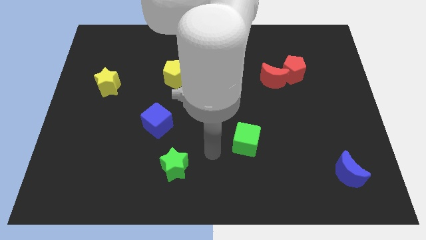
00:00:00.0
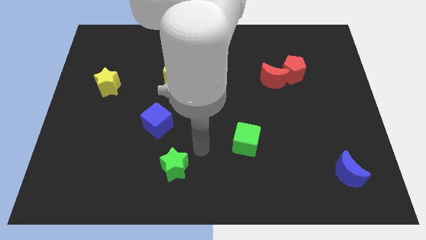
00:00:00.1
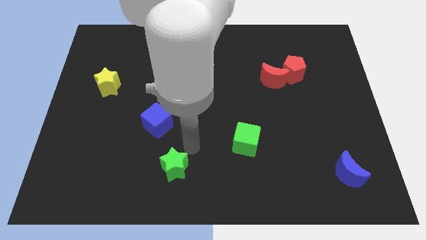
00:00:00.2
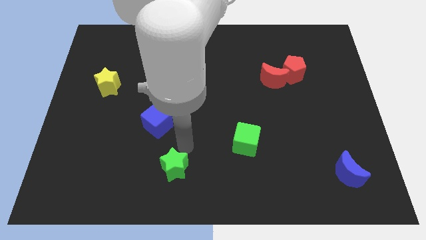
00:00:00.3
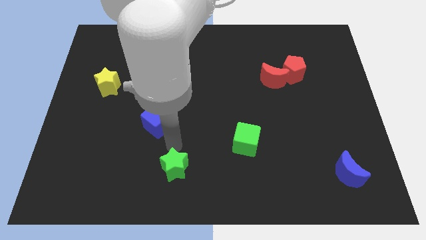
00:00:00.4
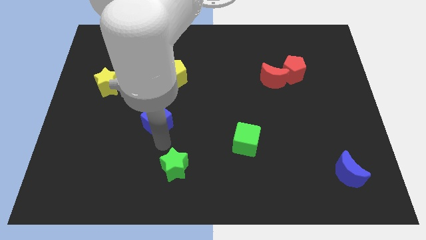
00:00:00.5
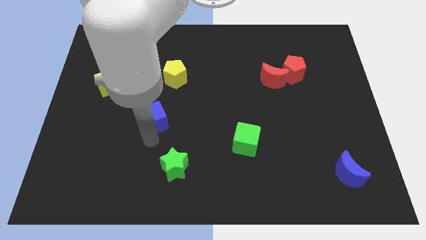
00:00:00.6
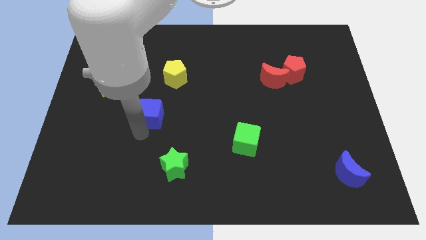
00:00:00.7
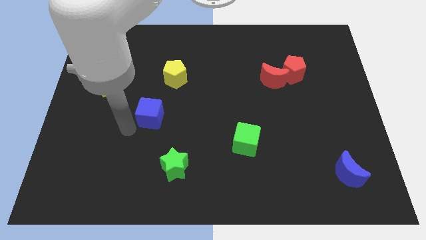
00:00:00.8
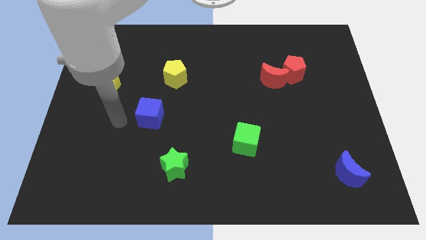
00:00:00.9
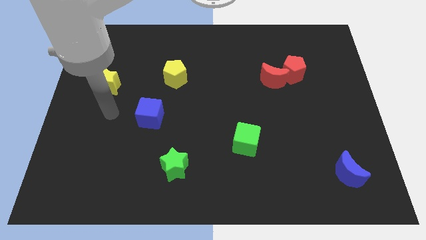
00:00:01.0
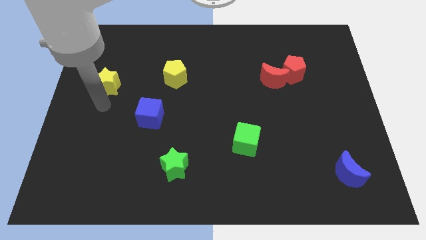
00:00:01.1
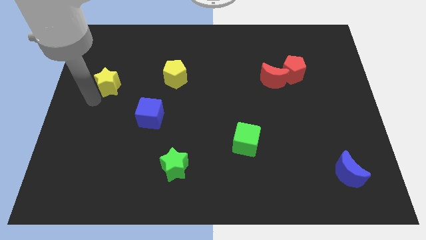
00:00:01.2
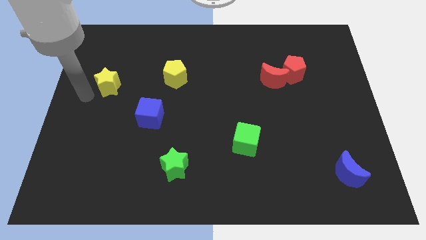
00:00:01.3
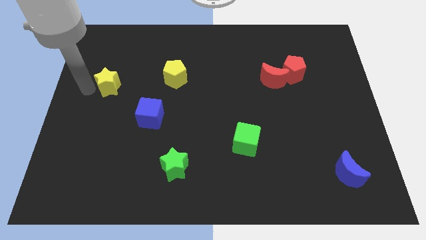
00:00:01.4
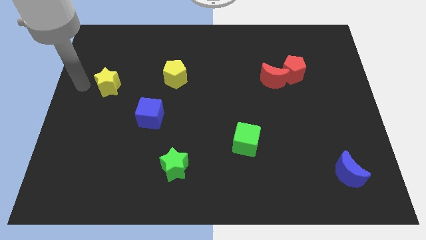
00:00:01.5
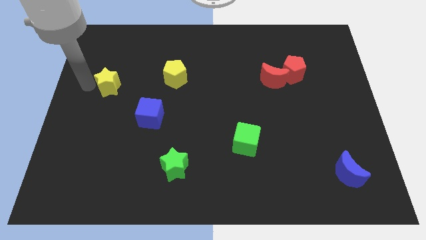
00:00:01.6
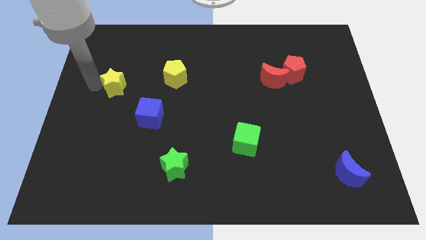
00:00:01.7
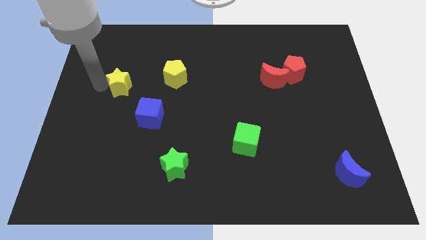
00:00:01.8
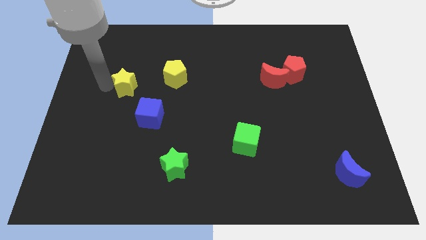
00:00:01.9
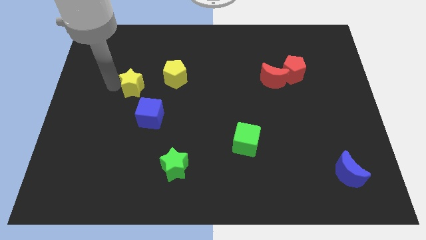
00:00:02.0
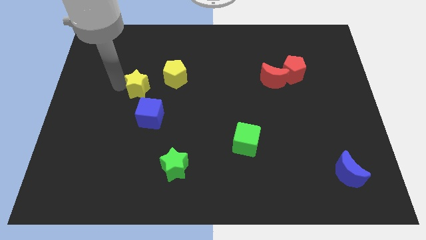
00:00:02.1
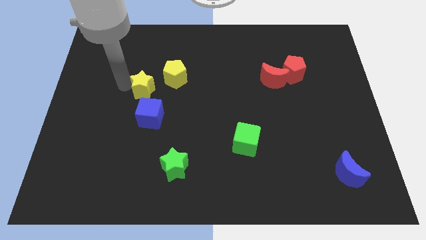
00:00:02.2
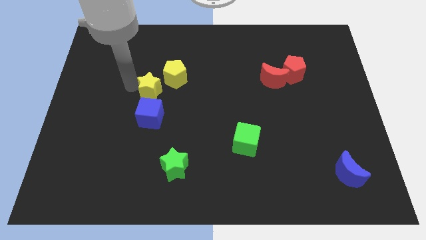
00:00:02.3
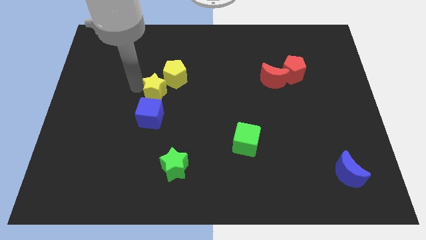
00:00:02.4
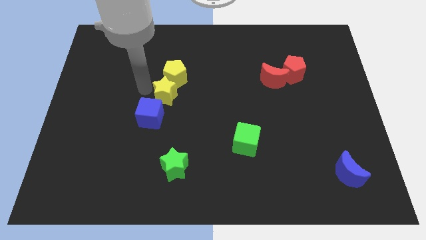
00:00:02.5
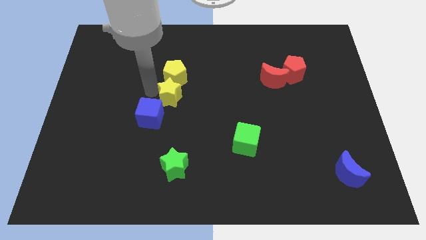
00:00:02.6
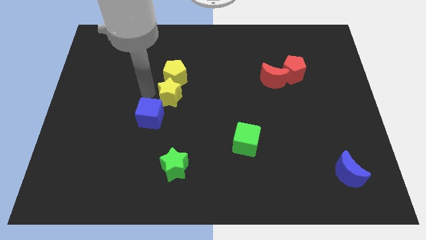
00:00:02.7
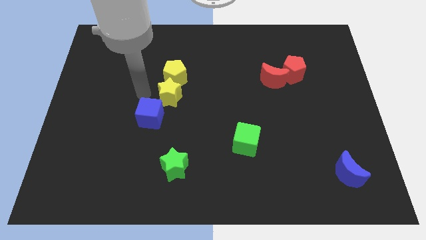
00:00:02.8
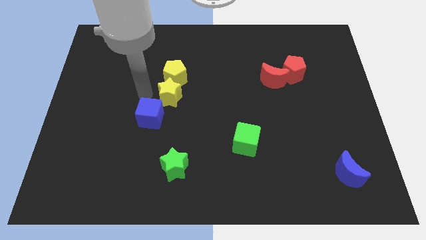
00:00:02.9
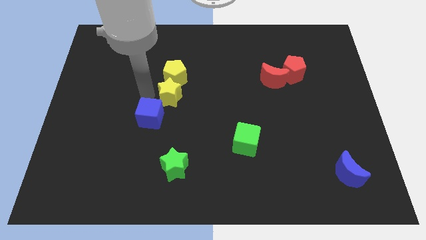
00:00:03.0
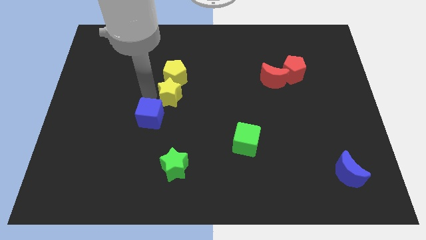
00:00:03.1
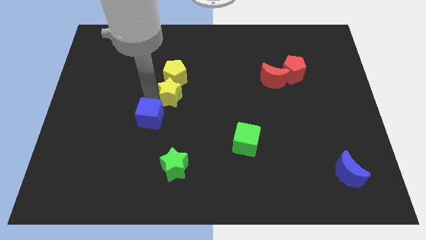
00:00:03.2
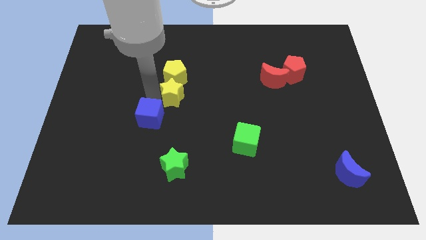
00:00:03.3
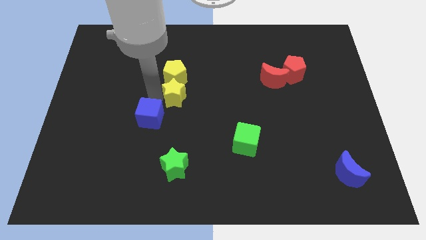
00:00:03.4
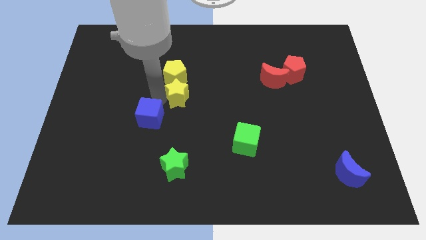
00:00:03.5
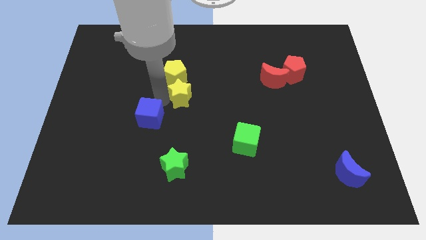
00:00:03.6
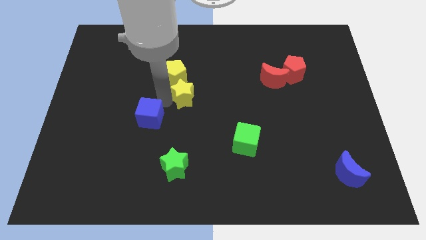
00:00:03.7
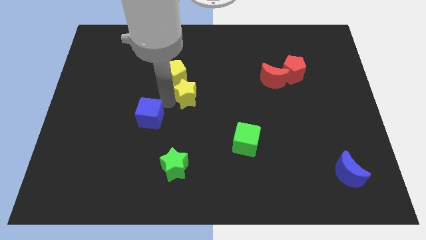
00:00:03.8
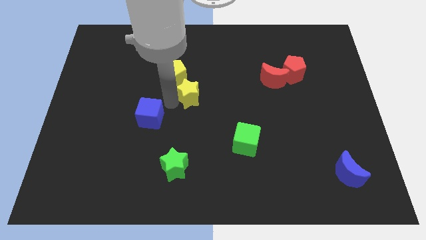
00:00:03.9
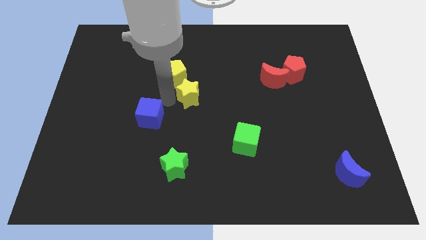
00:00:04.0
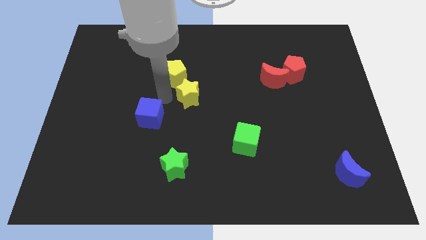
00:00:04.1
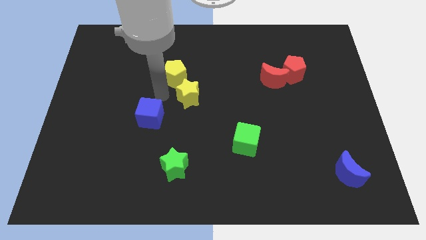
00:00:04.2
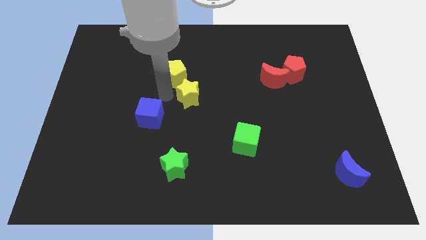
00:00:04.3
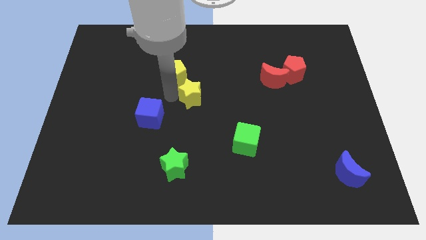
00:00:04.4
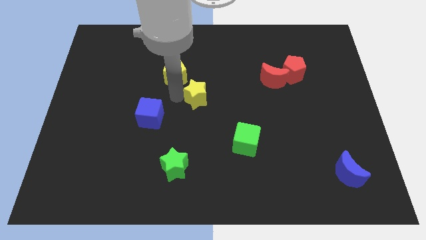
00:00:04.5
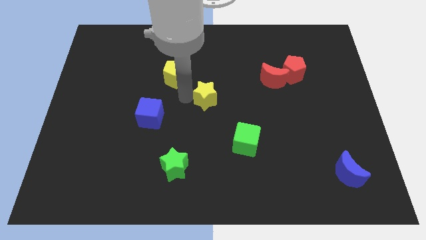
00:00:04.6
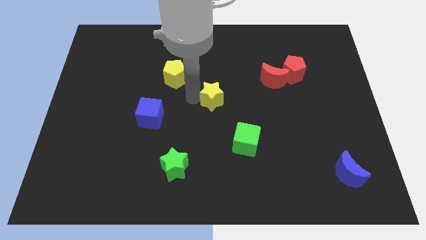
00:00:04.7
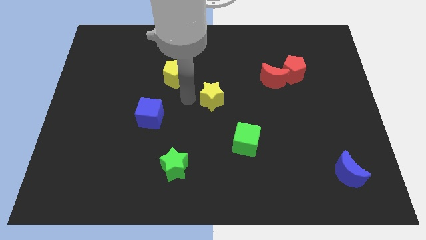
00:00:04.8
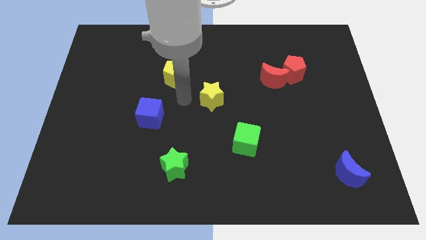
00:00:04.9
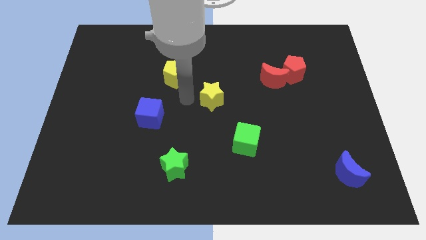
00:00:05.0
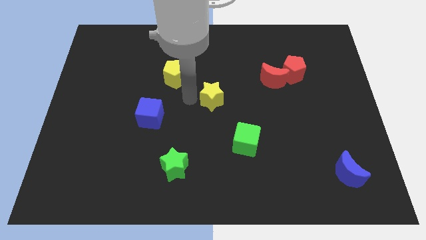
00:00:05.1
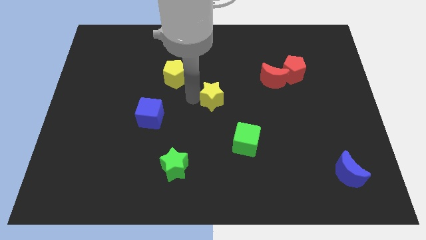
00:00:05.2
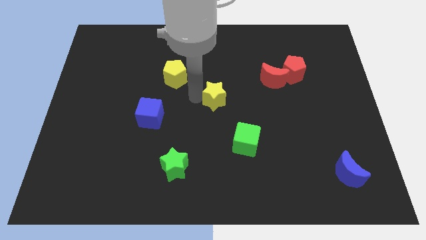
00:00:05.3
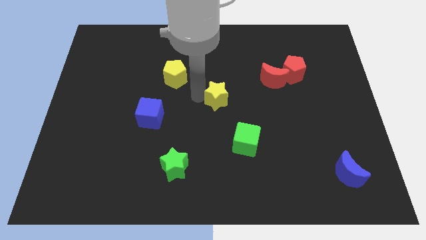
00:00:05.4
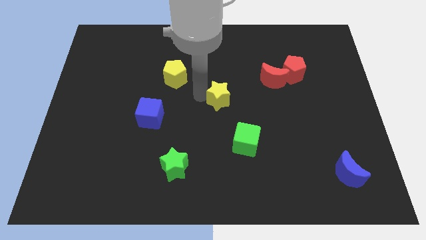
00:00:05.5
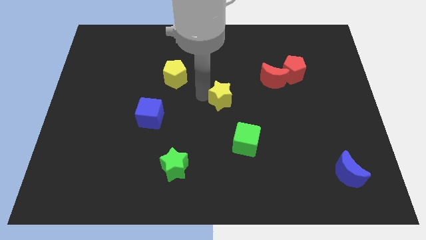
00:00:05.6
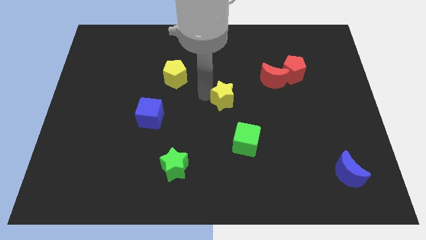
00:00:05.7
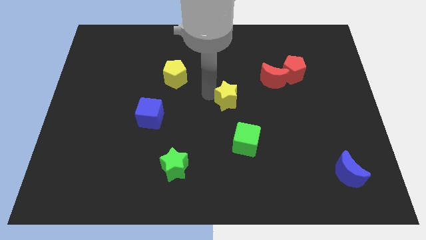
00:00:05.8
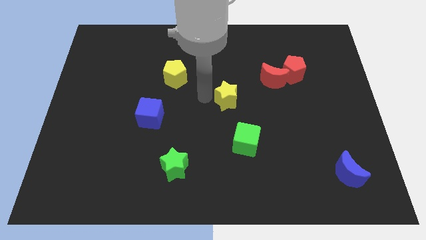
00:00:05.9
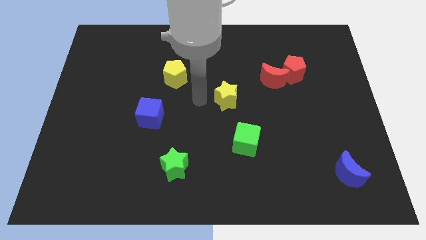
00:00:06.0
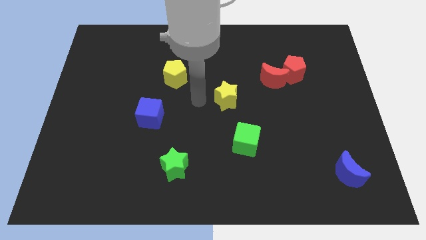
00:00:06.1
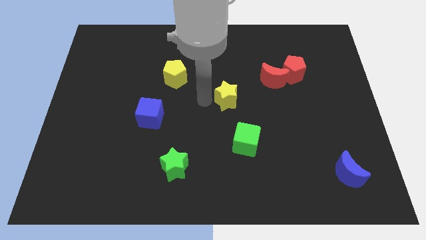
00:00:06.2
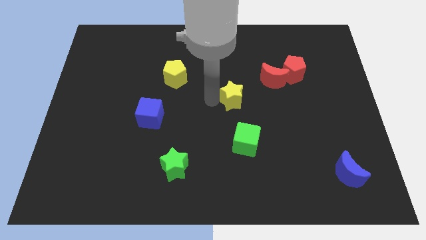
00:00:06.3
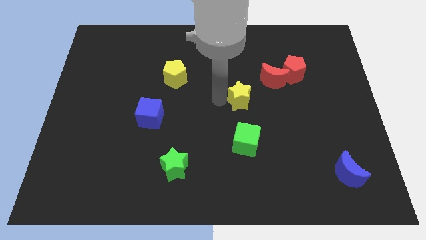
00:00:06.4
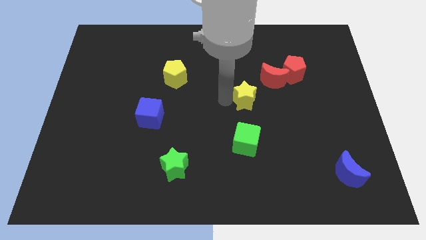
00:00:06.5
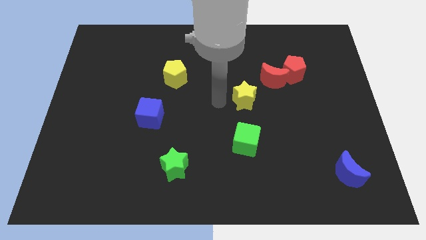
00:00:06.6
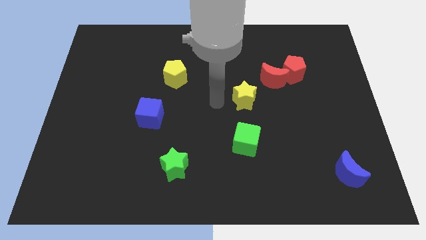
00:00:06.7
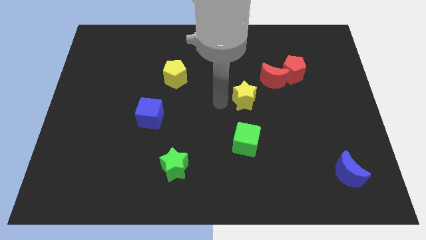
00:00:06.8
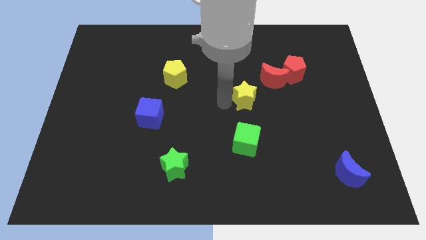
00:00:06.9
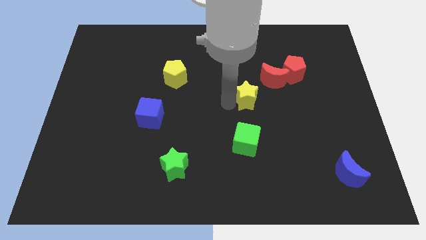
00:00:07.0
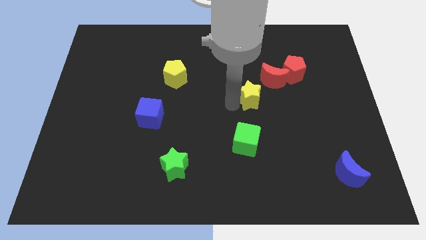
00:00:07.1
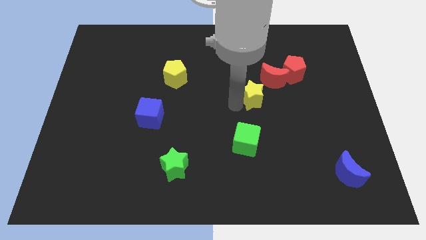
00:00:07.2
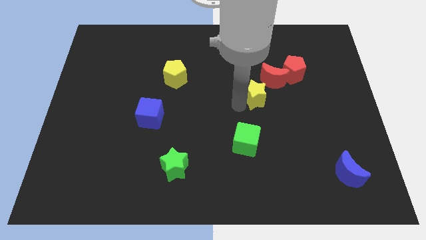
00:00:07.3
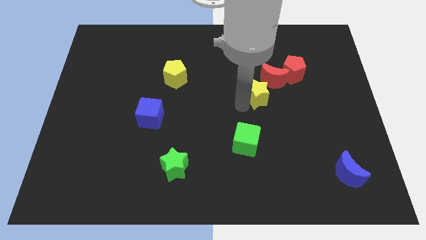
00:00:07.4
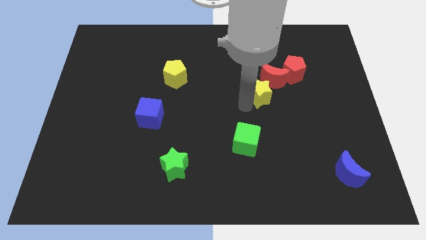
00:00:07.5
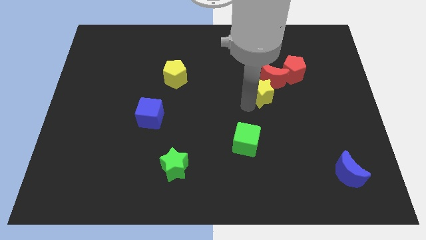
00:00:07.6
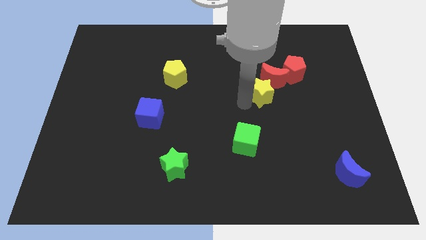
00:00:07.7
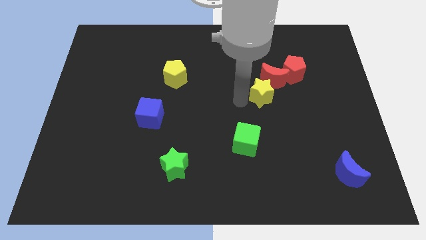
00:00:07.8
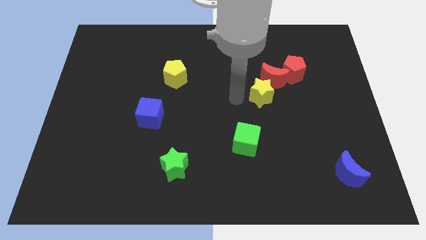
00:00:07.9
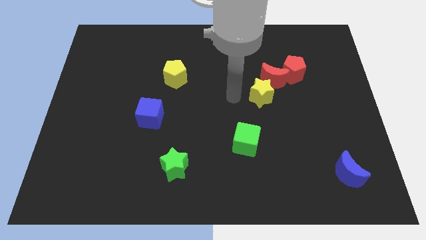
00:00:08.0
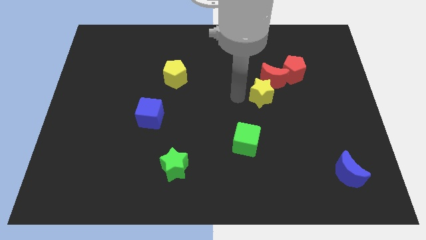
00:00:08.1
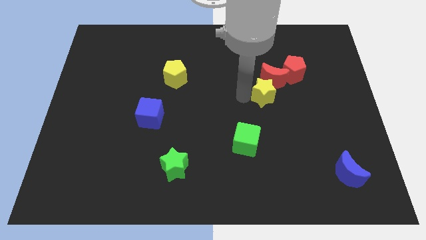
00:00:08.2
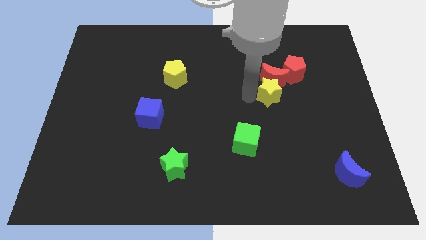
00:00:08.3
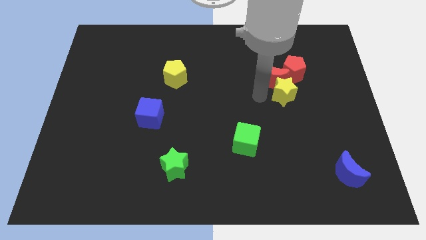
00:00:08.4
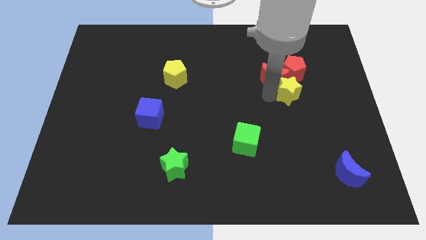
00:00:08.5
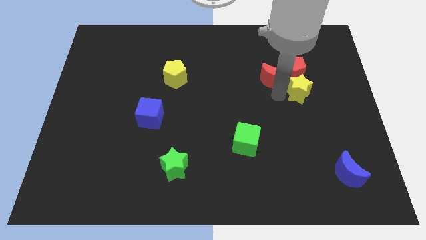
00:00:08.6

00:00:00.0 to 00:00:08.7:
slide the yellow star diagonally down and to the right of the red pentagon
